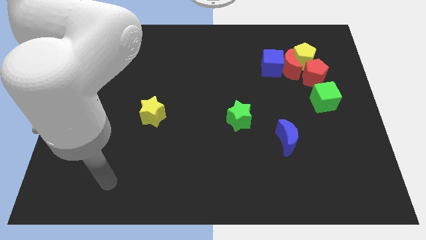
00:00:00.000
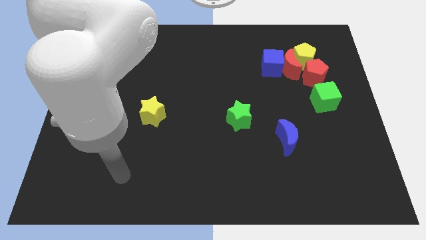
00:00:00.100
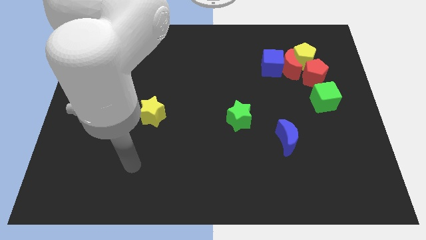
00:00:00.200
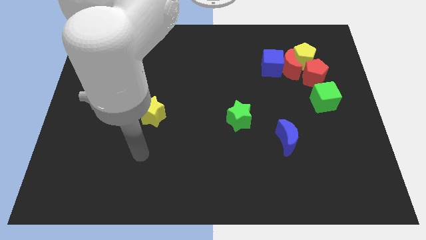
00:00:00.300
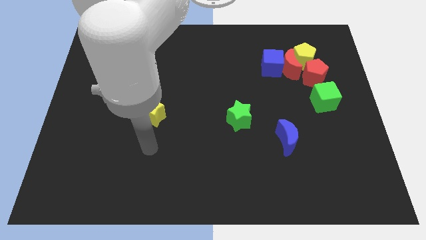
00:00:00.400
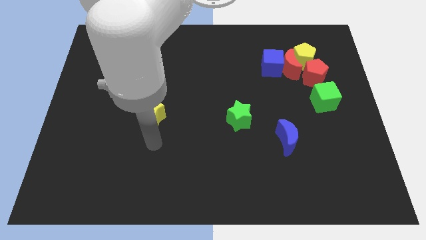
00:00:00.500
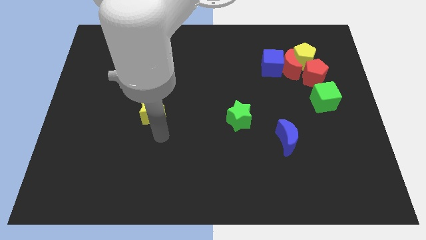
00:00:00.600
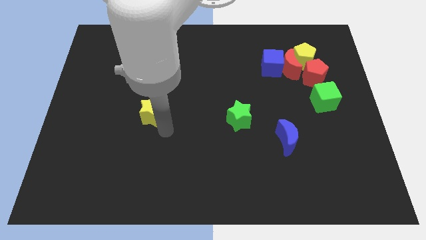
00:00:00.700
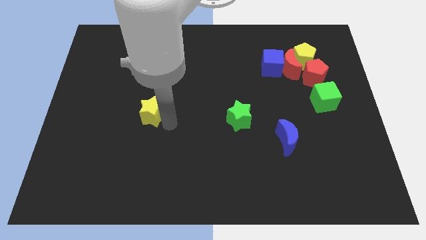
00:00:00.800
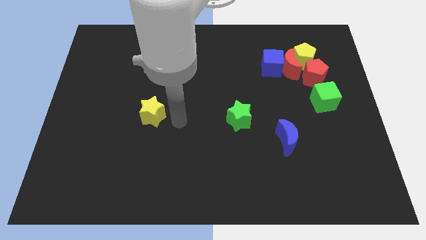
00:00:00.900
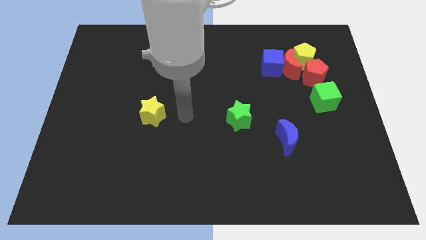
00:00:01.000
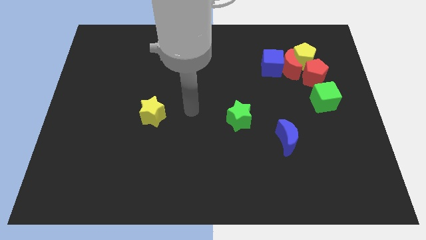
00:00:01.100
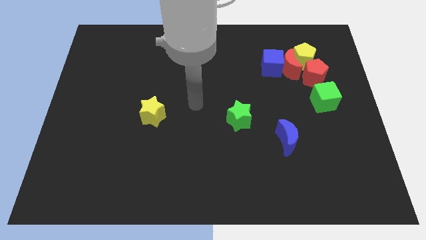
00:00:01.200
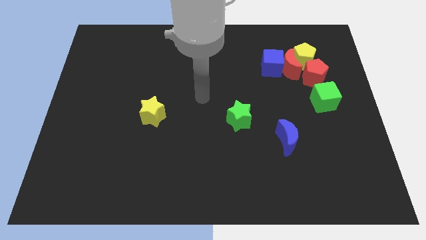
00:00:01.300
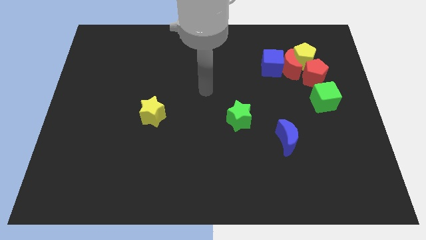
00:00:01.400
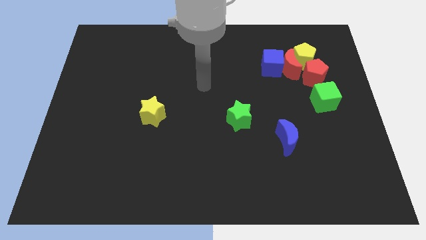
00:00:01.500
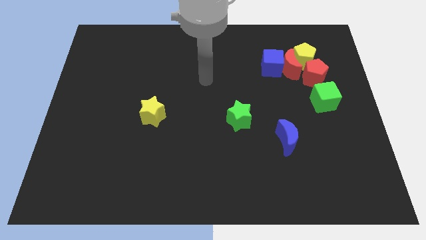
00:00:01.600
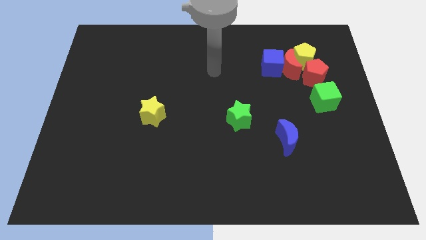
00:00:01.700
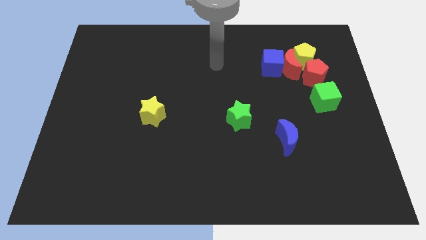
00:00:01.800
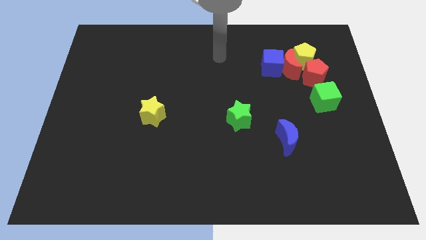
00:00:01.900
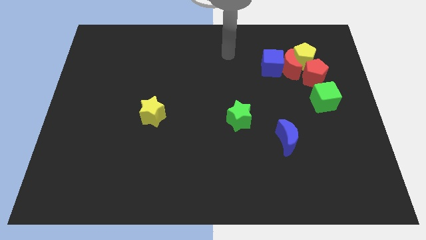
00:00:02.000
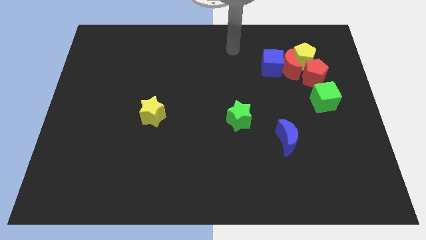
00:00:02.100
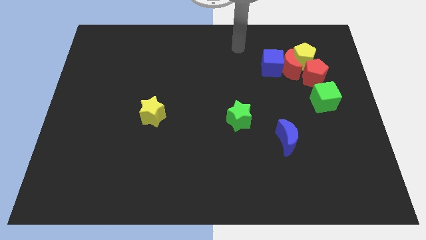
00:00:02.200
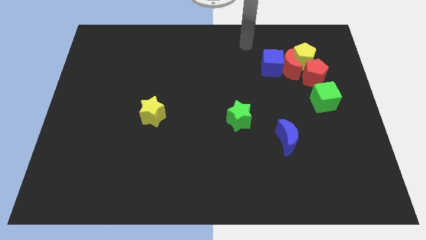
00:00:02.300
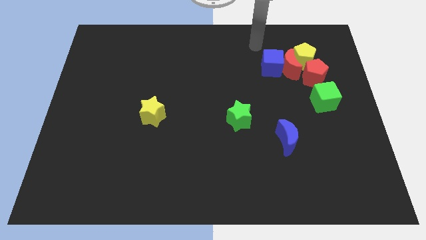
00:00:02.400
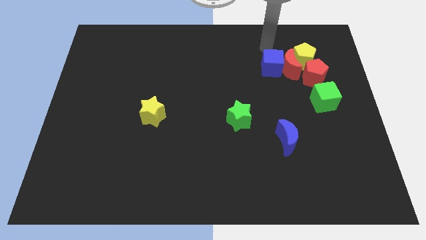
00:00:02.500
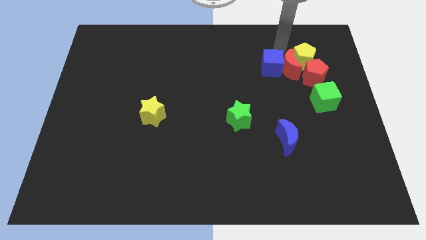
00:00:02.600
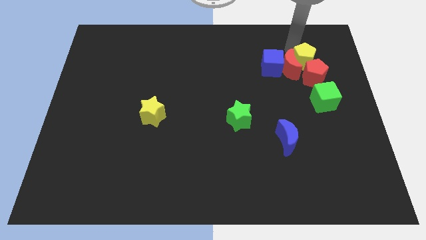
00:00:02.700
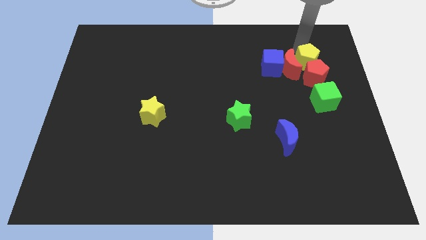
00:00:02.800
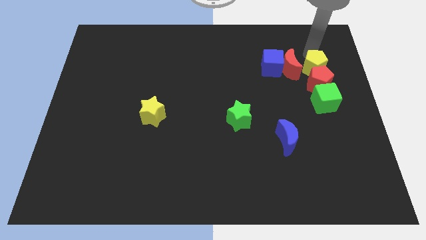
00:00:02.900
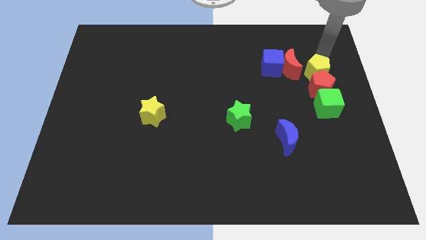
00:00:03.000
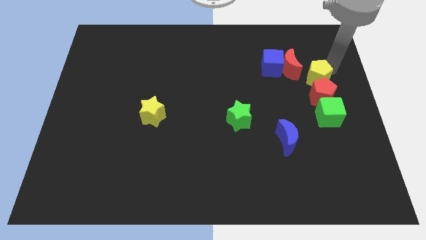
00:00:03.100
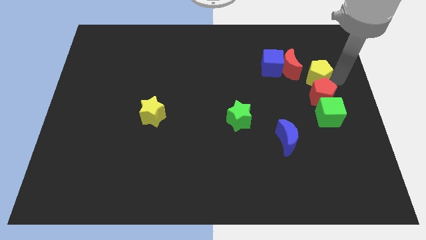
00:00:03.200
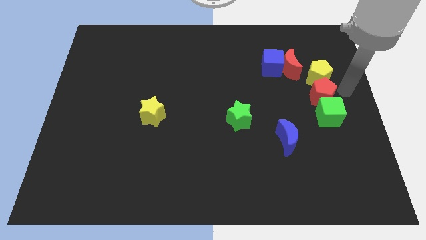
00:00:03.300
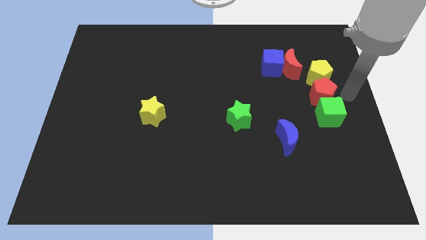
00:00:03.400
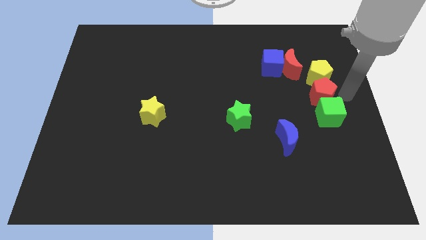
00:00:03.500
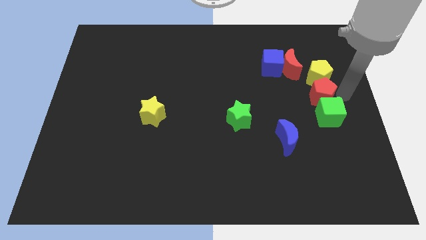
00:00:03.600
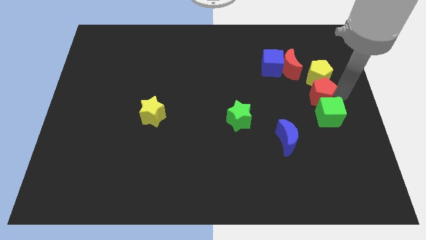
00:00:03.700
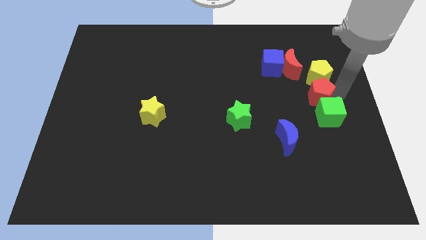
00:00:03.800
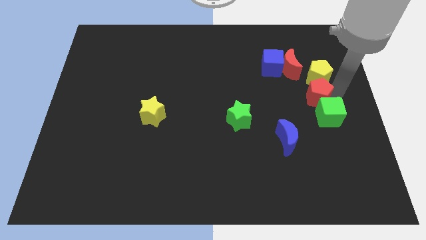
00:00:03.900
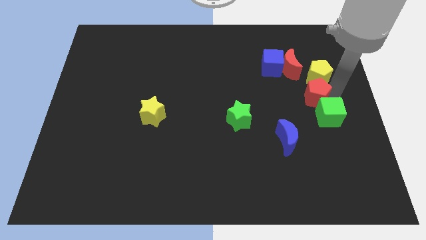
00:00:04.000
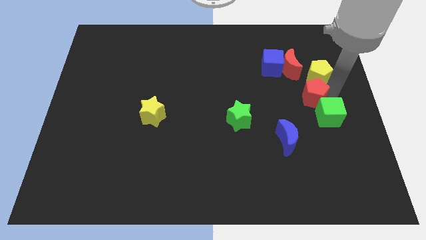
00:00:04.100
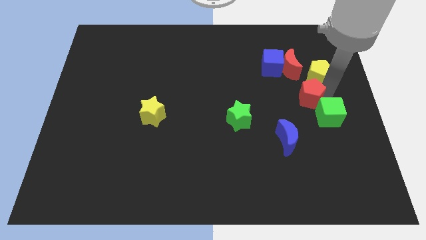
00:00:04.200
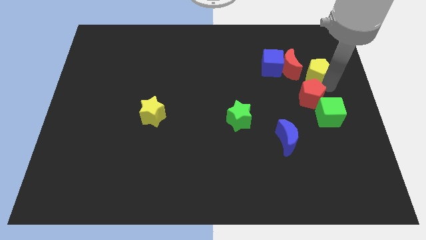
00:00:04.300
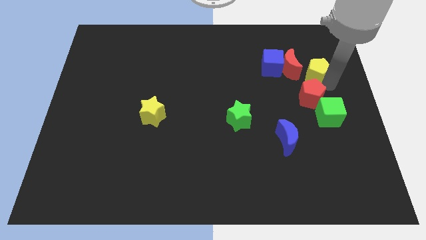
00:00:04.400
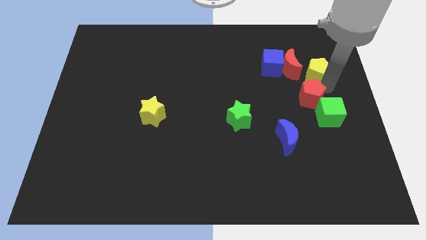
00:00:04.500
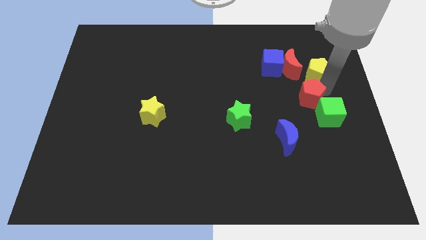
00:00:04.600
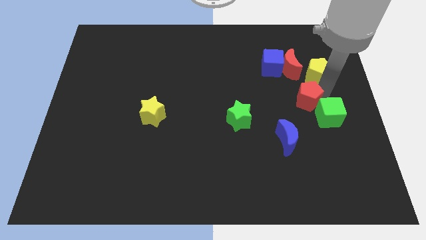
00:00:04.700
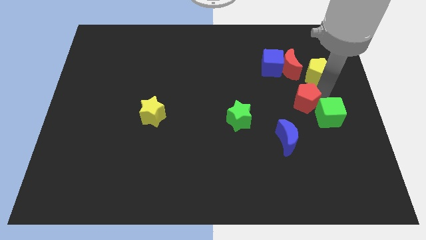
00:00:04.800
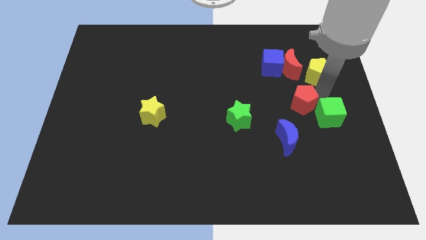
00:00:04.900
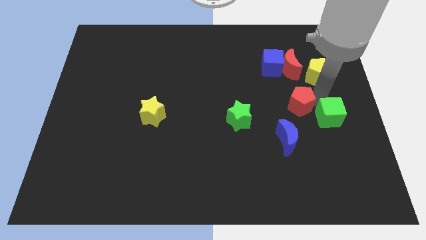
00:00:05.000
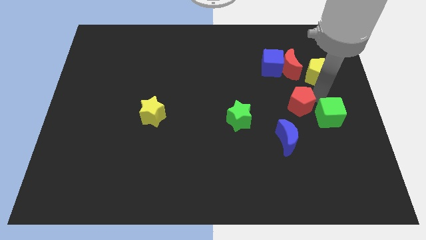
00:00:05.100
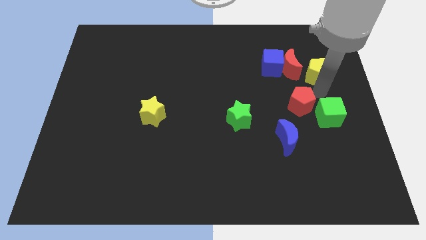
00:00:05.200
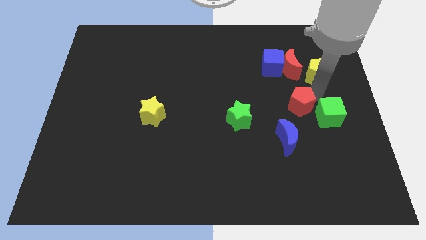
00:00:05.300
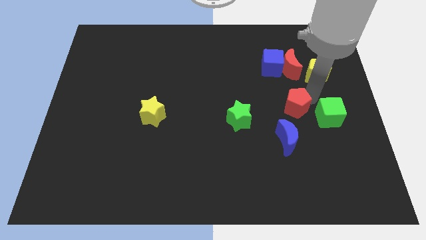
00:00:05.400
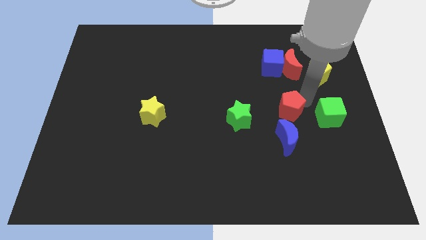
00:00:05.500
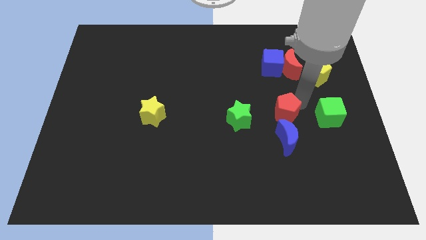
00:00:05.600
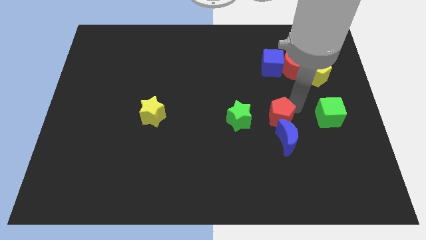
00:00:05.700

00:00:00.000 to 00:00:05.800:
slide the red pentagon diagonally up and to the left of the blue moon

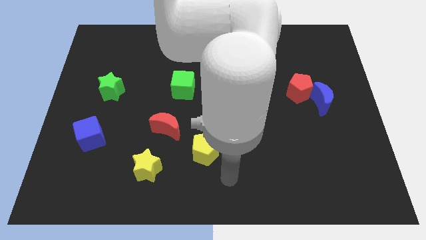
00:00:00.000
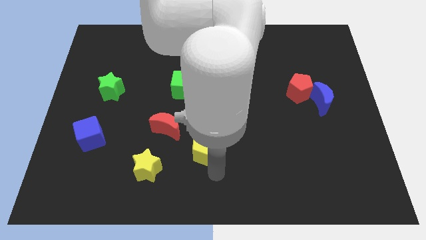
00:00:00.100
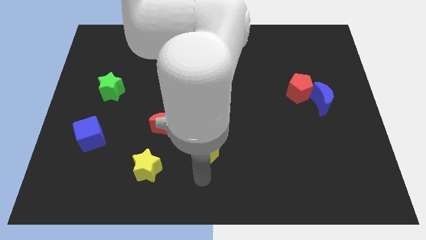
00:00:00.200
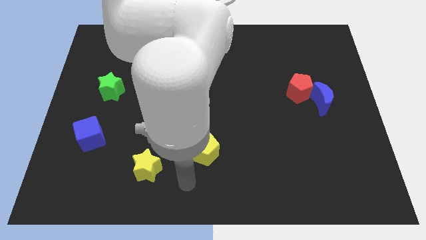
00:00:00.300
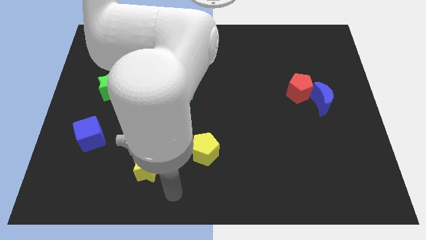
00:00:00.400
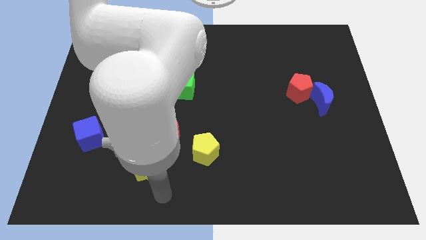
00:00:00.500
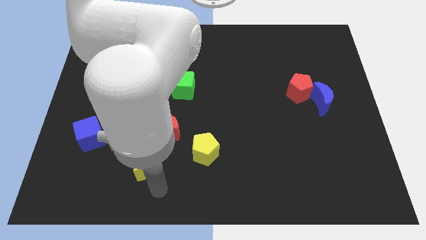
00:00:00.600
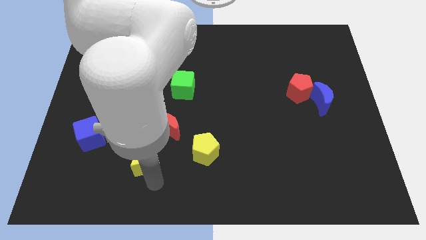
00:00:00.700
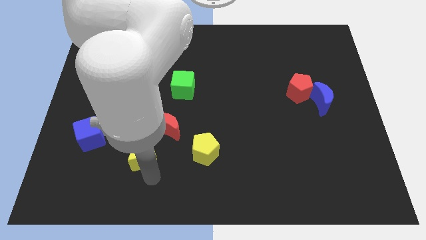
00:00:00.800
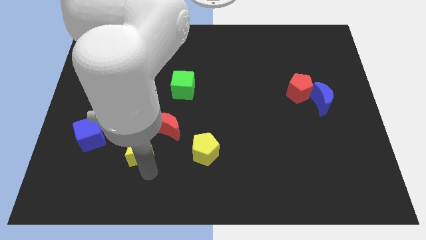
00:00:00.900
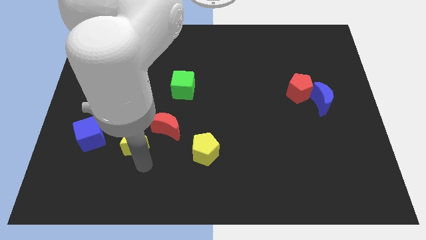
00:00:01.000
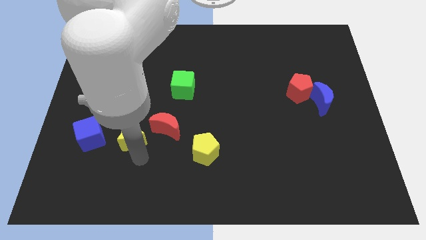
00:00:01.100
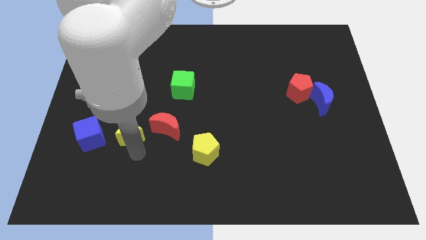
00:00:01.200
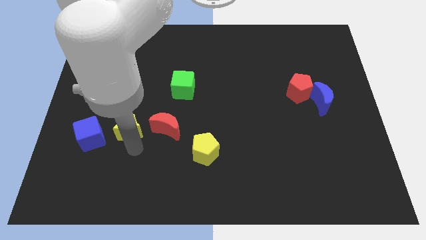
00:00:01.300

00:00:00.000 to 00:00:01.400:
push the yellow star to the top right side of the blue cube
